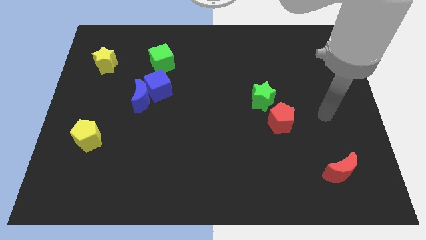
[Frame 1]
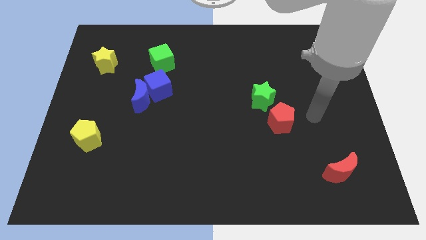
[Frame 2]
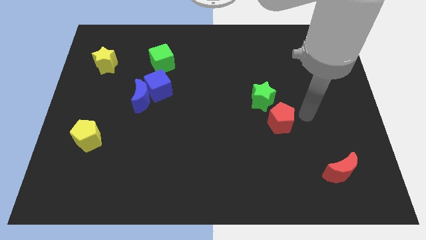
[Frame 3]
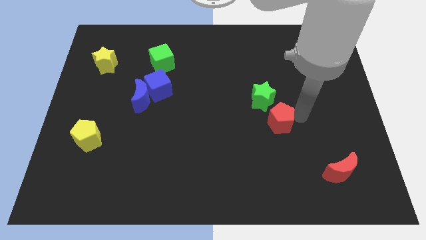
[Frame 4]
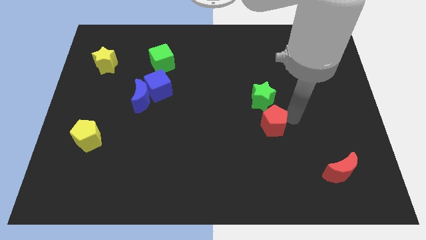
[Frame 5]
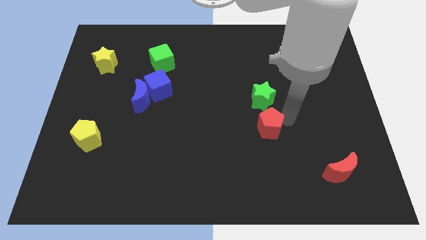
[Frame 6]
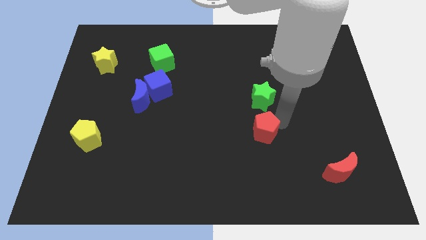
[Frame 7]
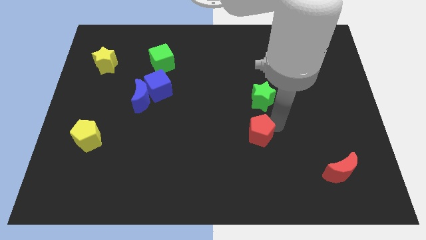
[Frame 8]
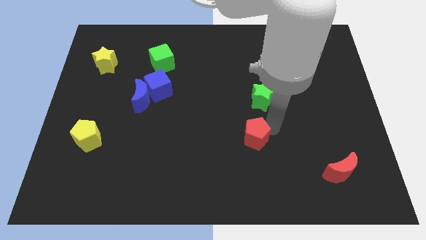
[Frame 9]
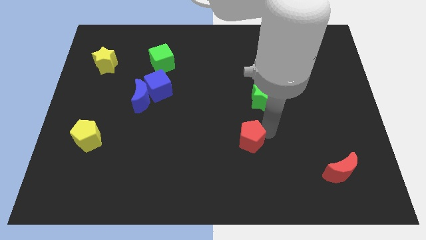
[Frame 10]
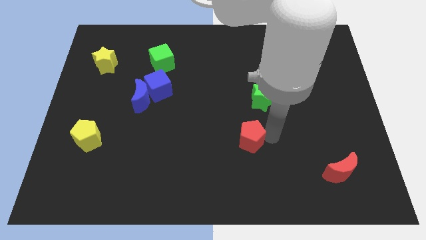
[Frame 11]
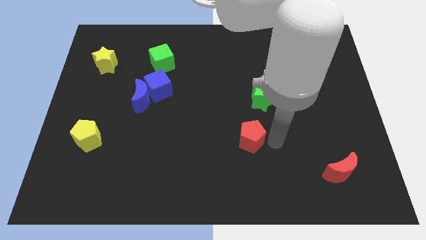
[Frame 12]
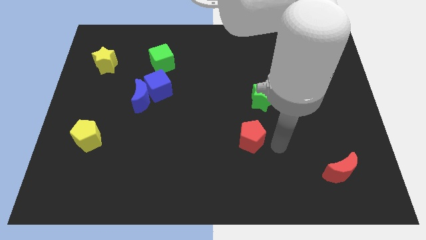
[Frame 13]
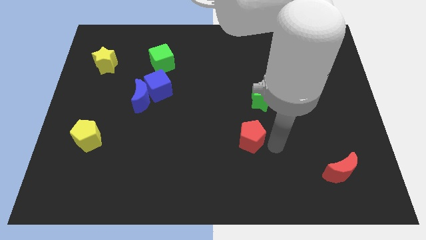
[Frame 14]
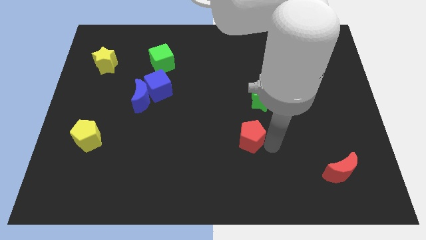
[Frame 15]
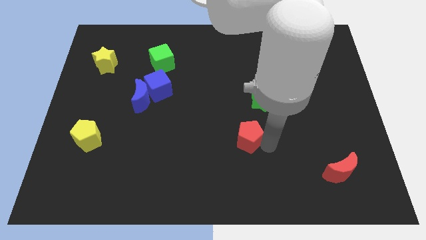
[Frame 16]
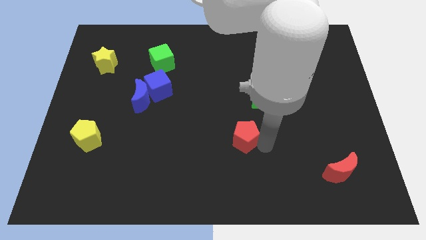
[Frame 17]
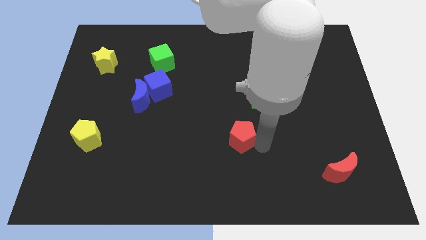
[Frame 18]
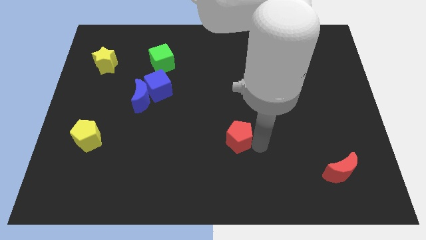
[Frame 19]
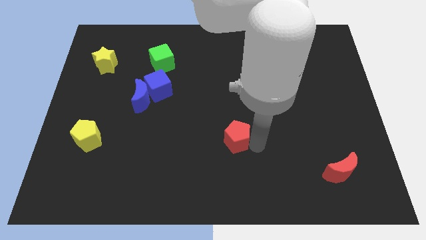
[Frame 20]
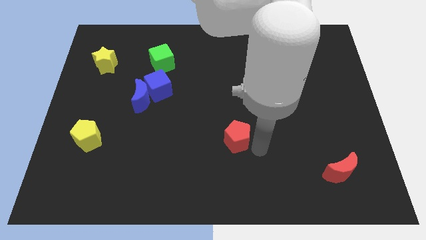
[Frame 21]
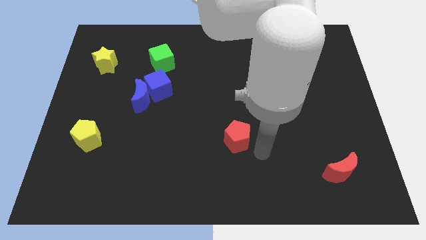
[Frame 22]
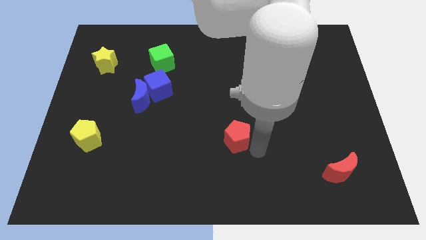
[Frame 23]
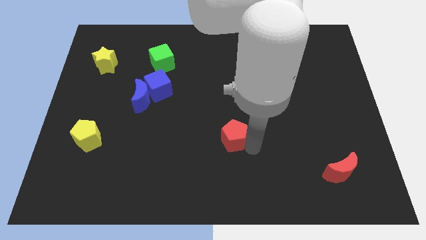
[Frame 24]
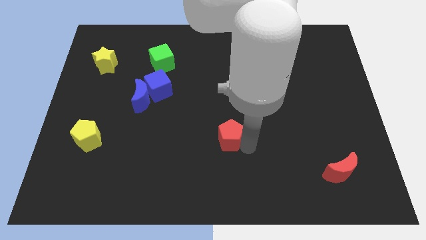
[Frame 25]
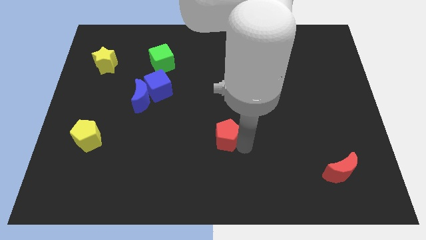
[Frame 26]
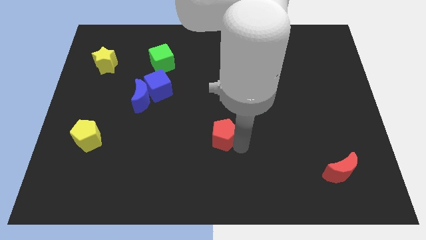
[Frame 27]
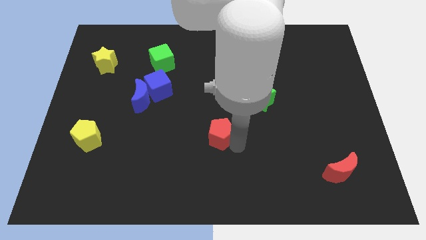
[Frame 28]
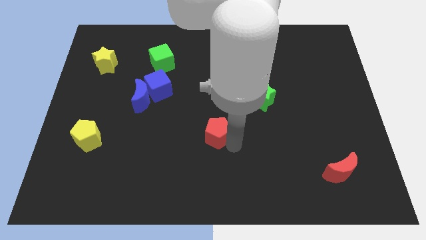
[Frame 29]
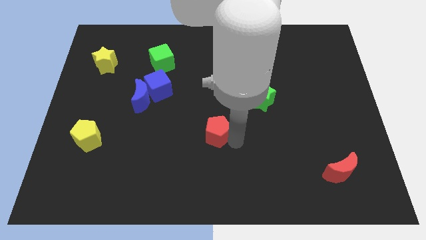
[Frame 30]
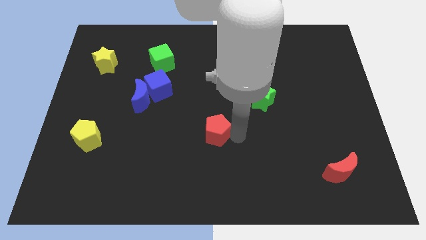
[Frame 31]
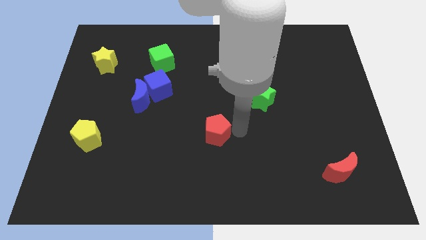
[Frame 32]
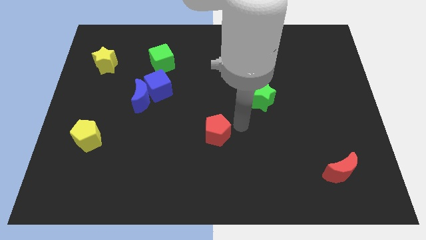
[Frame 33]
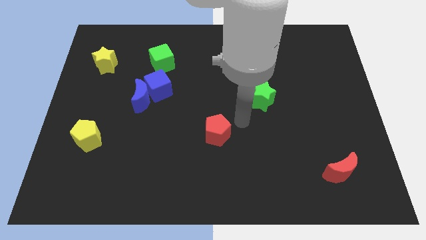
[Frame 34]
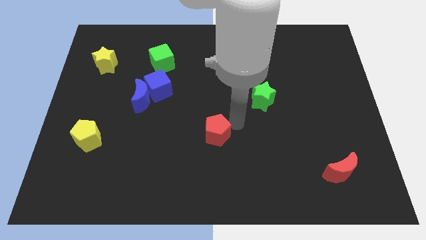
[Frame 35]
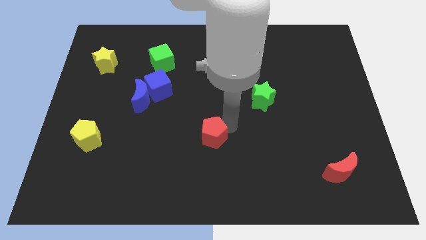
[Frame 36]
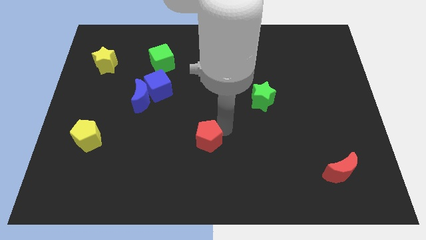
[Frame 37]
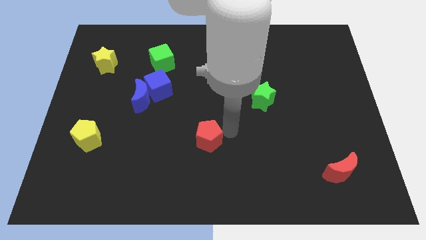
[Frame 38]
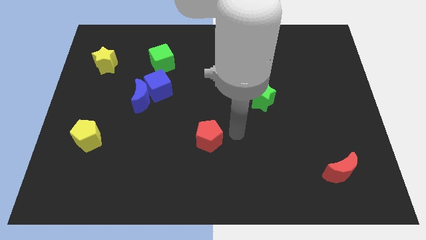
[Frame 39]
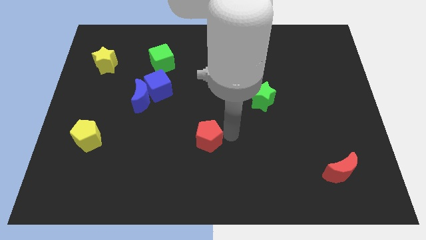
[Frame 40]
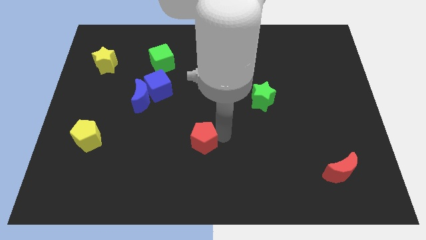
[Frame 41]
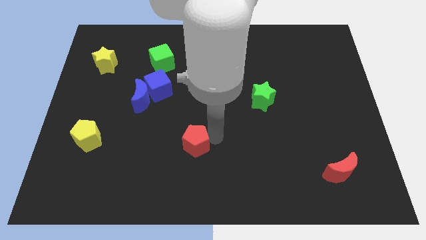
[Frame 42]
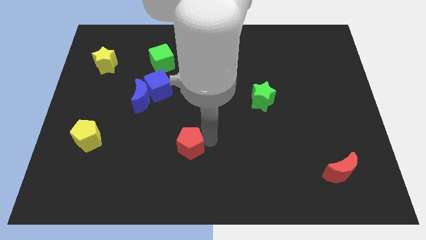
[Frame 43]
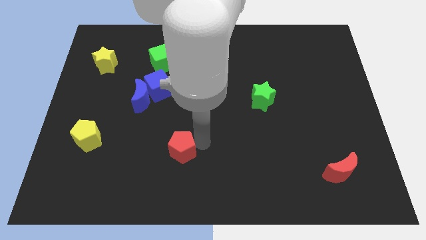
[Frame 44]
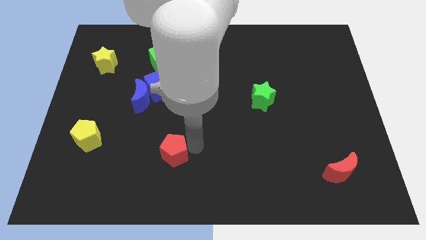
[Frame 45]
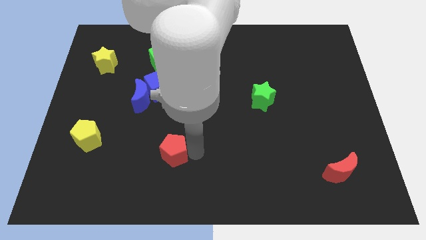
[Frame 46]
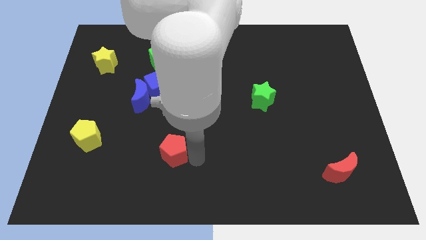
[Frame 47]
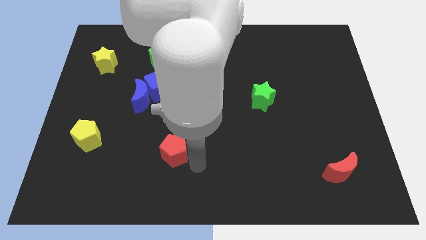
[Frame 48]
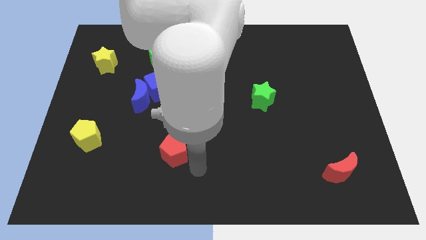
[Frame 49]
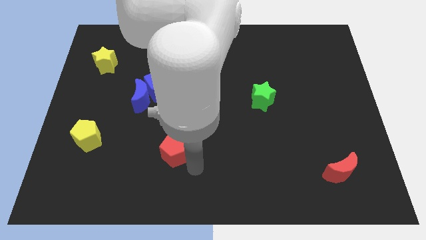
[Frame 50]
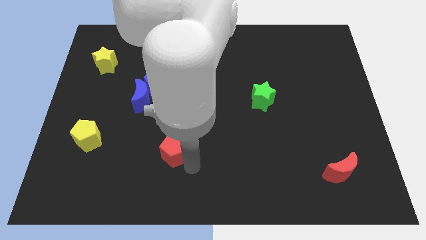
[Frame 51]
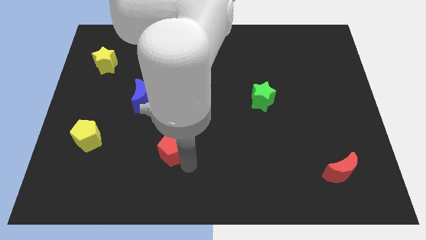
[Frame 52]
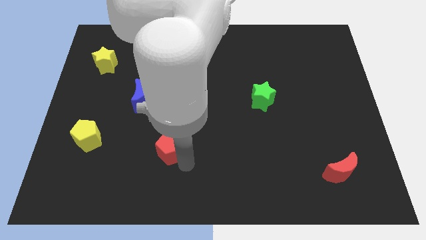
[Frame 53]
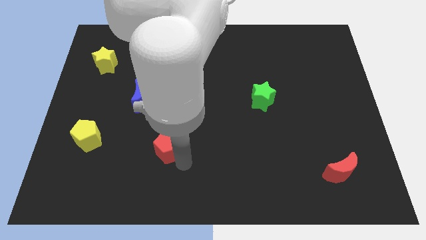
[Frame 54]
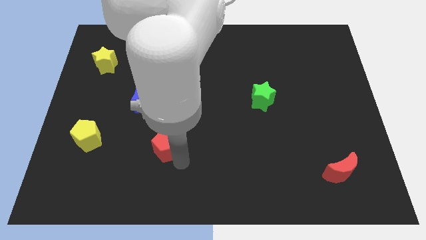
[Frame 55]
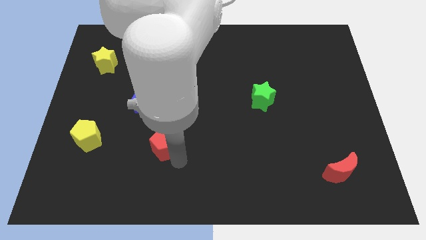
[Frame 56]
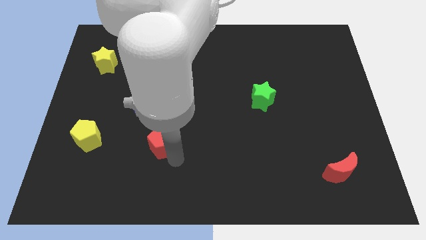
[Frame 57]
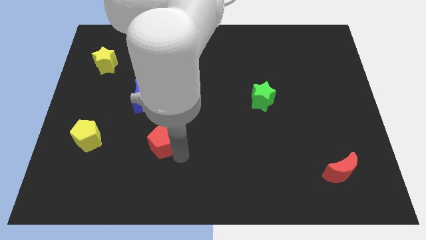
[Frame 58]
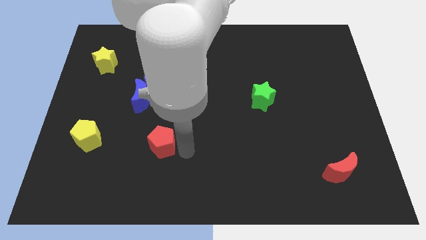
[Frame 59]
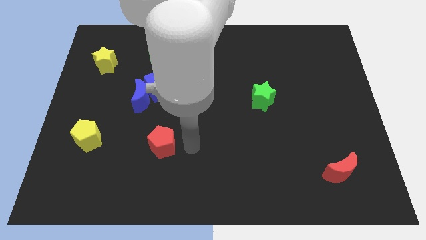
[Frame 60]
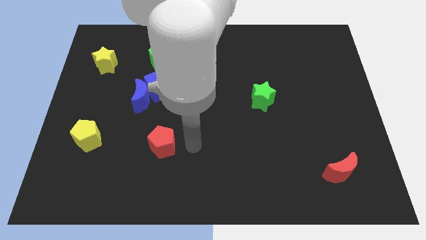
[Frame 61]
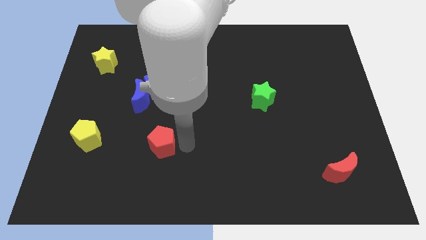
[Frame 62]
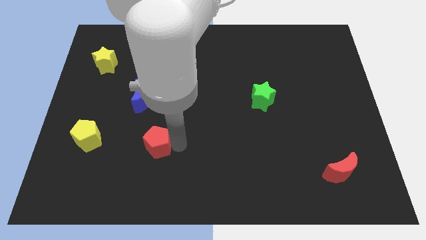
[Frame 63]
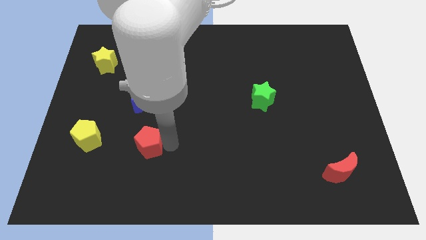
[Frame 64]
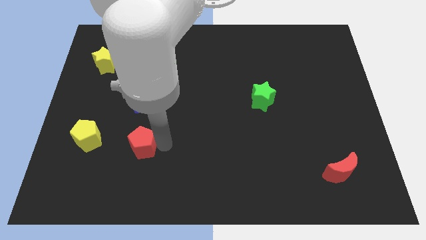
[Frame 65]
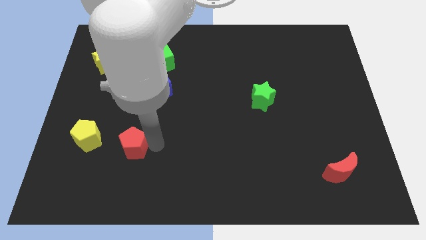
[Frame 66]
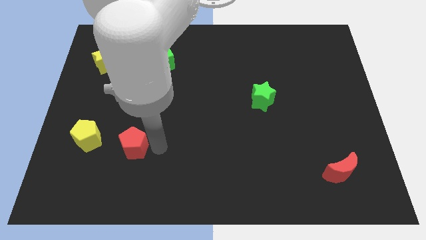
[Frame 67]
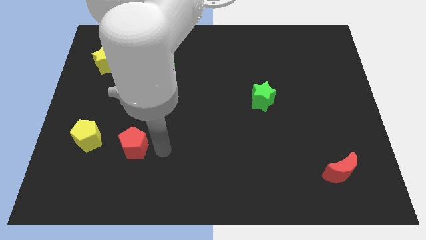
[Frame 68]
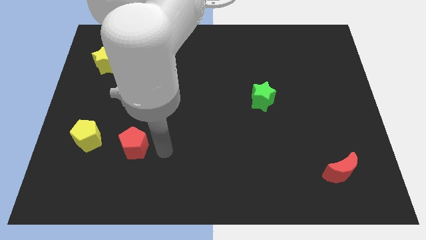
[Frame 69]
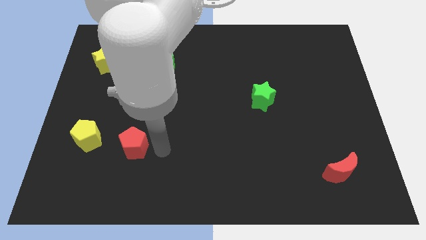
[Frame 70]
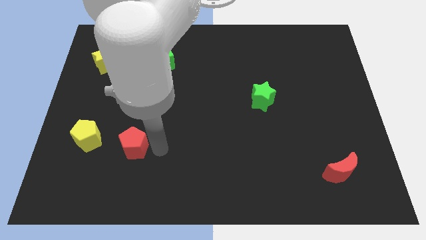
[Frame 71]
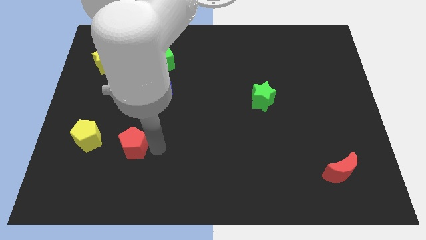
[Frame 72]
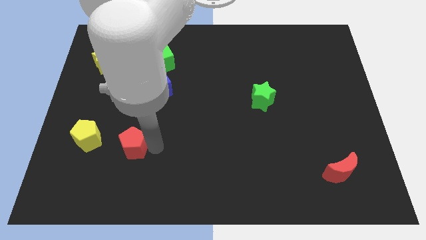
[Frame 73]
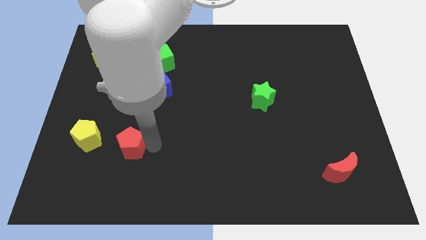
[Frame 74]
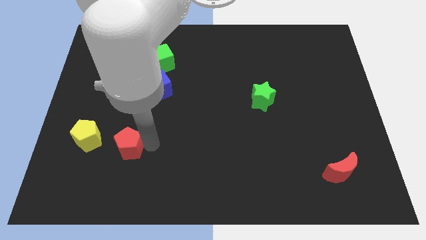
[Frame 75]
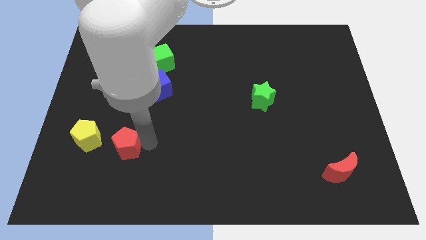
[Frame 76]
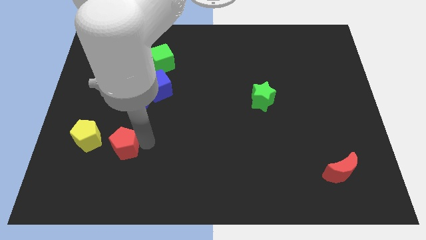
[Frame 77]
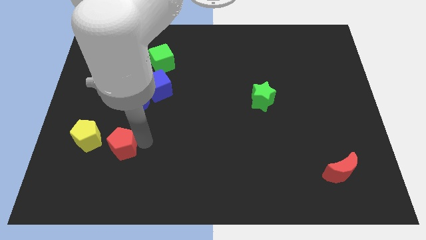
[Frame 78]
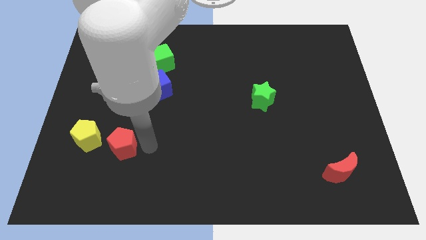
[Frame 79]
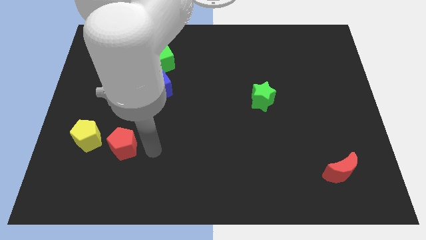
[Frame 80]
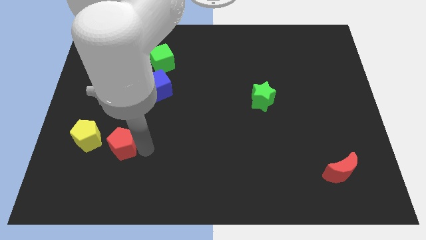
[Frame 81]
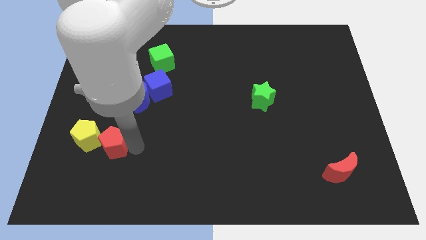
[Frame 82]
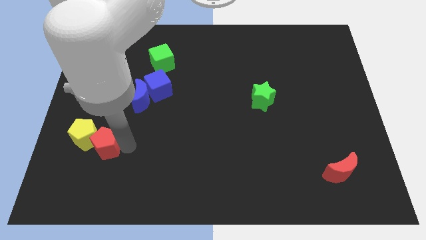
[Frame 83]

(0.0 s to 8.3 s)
move the red pentagon to the yellow pentagon
